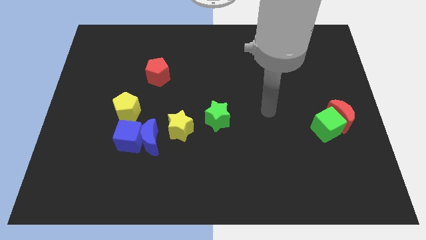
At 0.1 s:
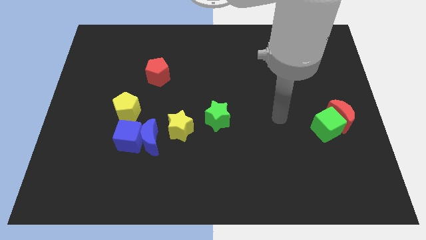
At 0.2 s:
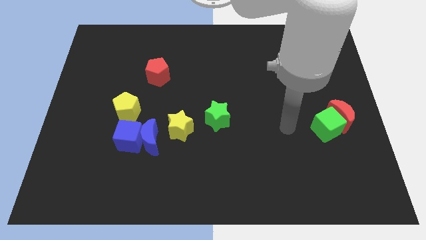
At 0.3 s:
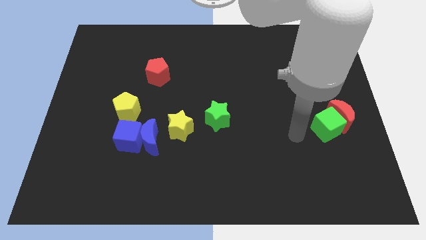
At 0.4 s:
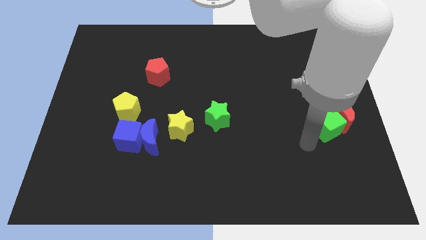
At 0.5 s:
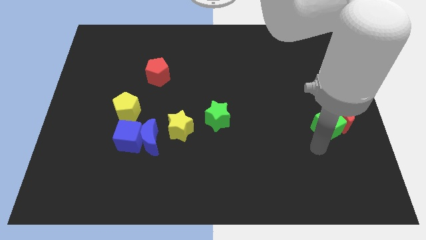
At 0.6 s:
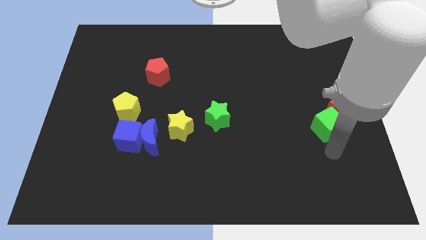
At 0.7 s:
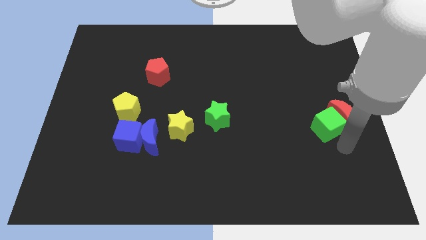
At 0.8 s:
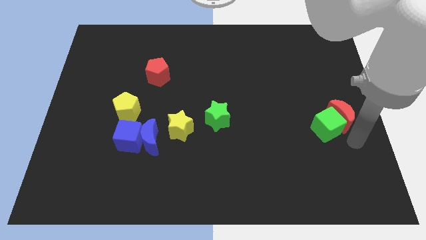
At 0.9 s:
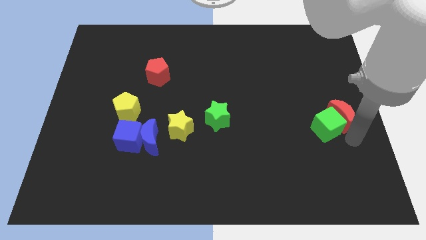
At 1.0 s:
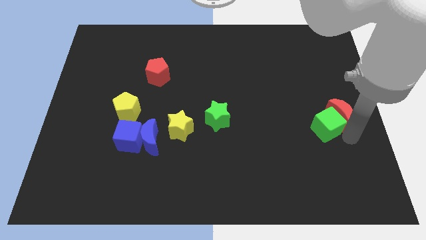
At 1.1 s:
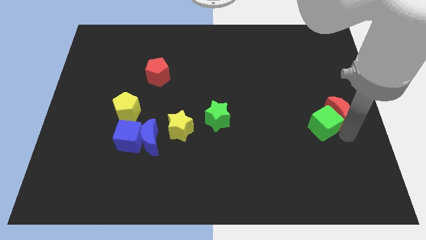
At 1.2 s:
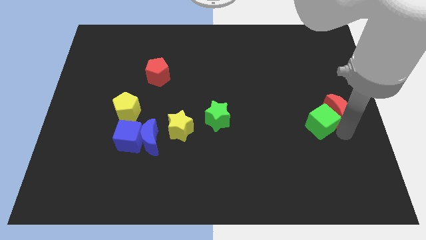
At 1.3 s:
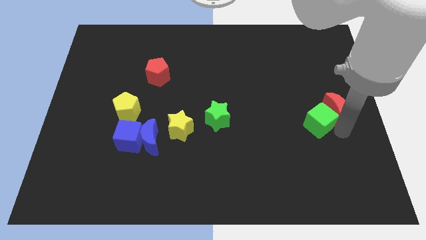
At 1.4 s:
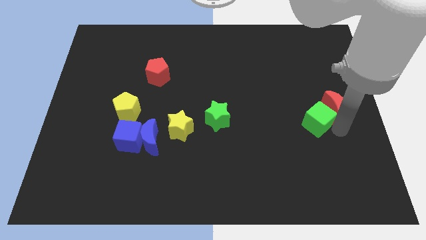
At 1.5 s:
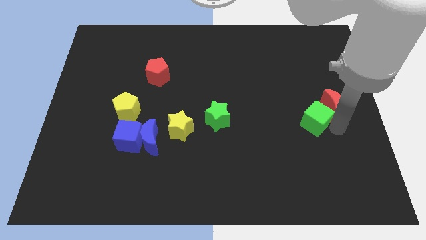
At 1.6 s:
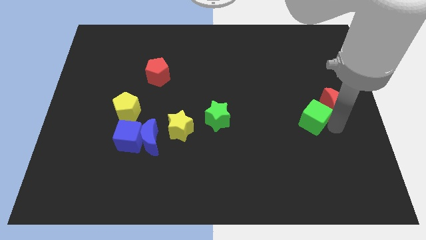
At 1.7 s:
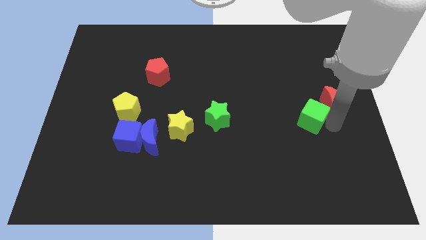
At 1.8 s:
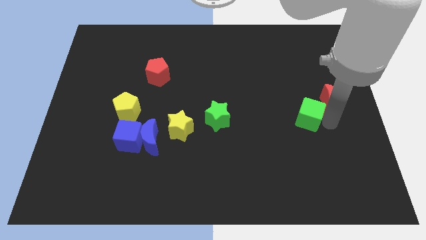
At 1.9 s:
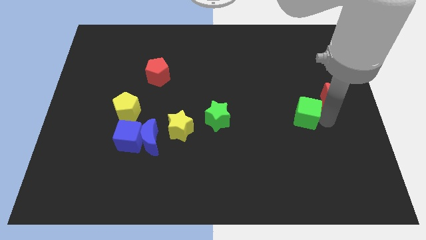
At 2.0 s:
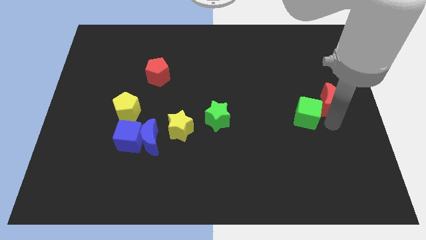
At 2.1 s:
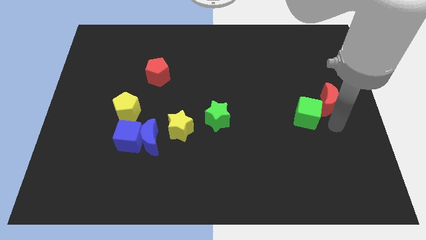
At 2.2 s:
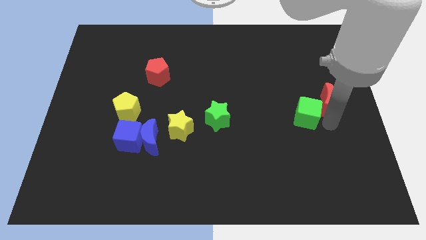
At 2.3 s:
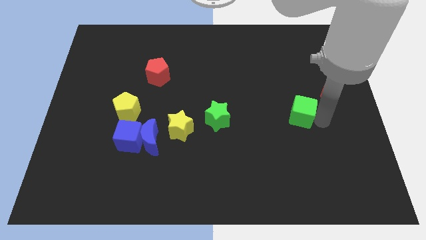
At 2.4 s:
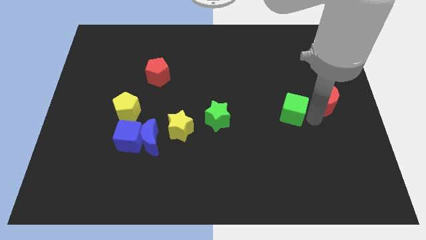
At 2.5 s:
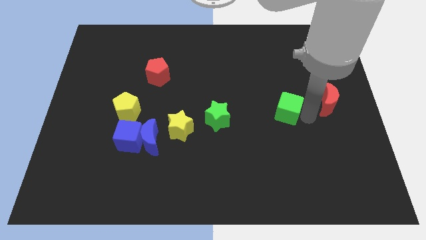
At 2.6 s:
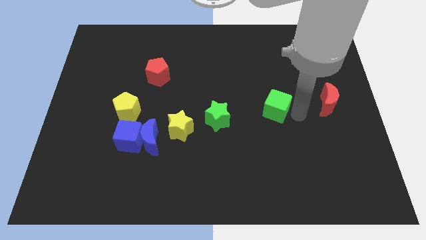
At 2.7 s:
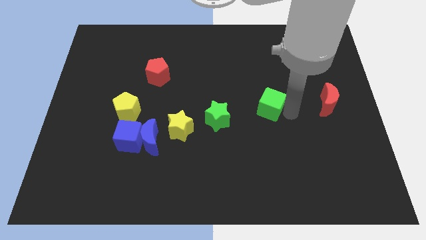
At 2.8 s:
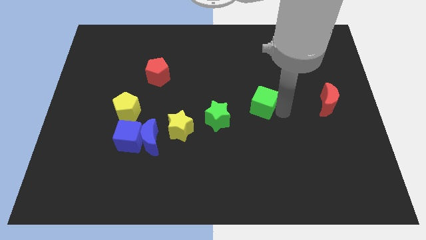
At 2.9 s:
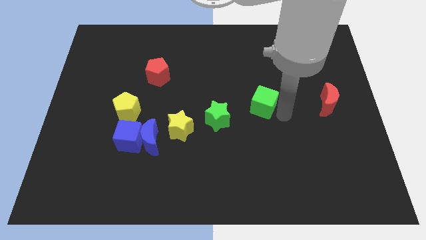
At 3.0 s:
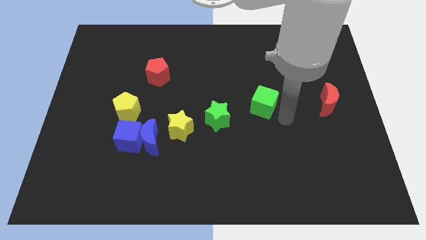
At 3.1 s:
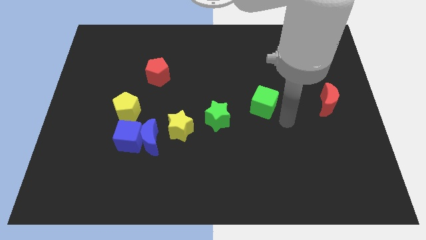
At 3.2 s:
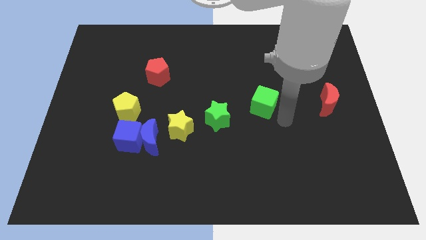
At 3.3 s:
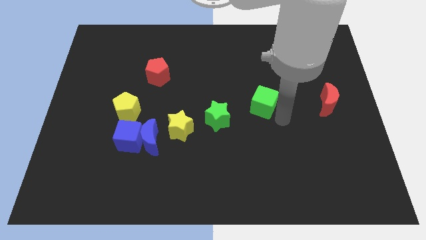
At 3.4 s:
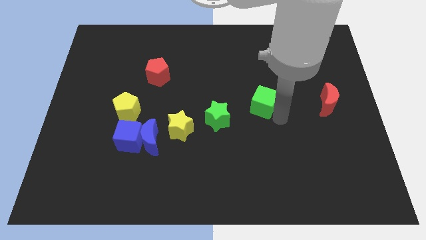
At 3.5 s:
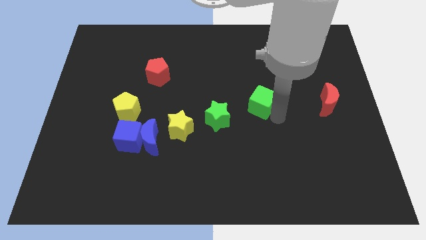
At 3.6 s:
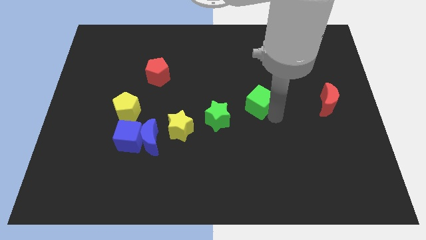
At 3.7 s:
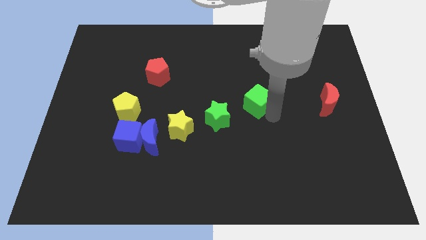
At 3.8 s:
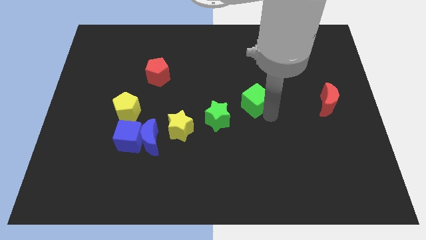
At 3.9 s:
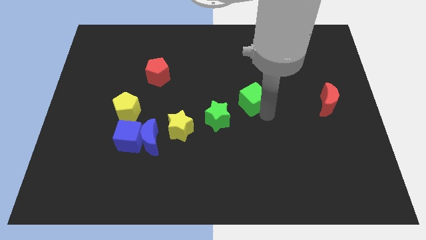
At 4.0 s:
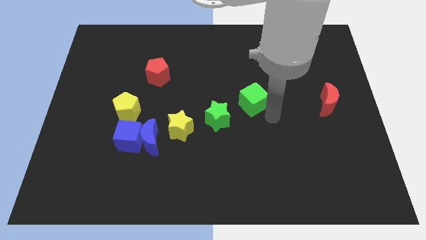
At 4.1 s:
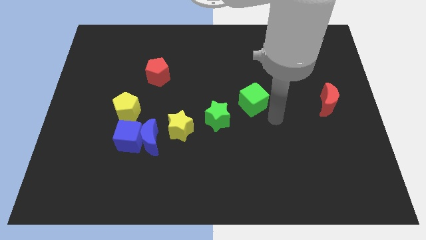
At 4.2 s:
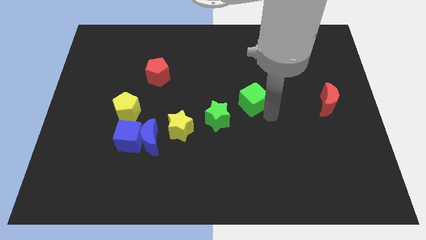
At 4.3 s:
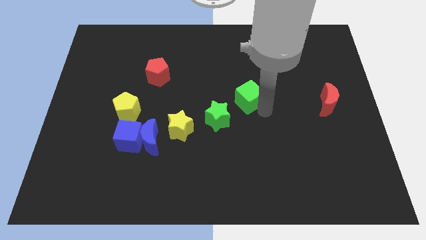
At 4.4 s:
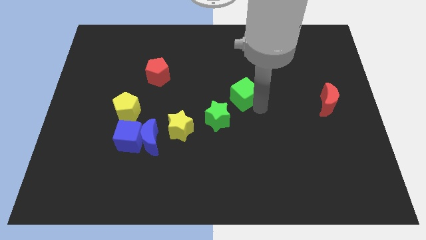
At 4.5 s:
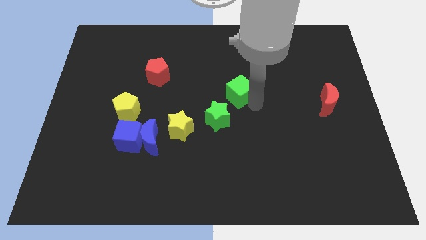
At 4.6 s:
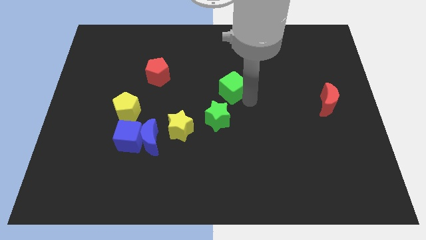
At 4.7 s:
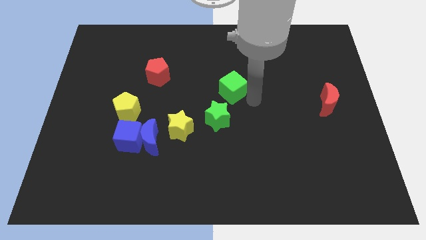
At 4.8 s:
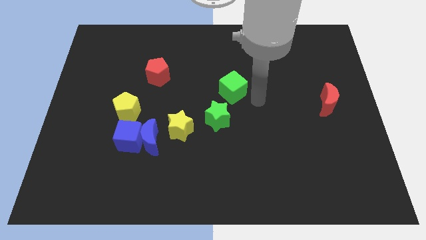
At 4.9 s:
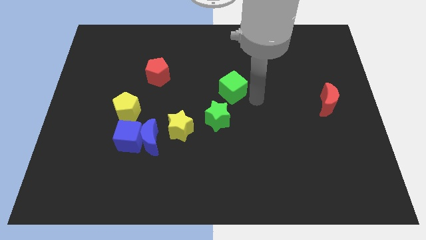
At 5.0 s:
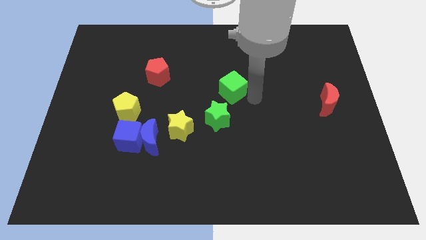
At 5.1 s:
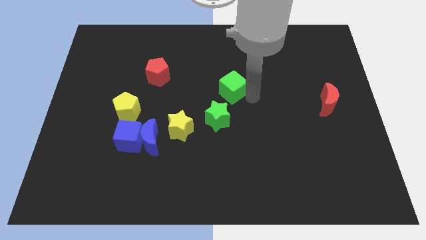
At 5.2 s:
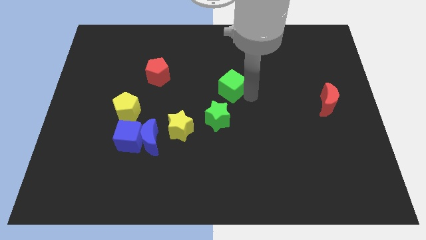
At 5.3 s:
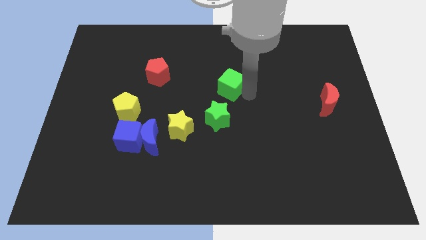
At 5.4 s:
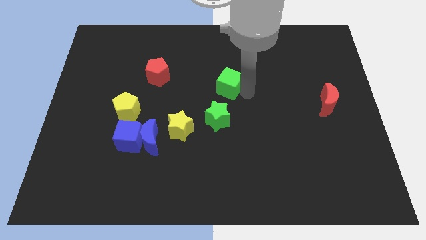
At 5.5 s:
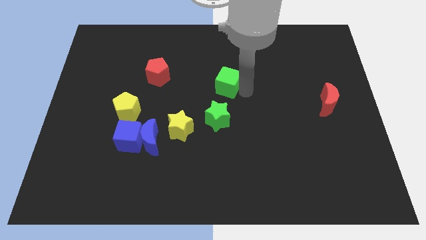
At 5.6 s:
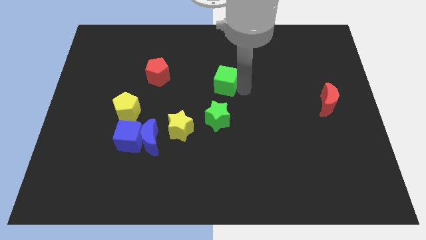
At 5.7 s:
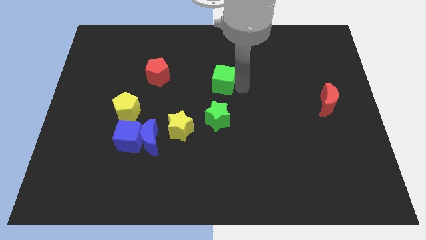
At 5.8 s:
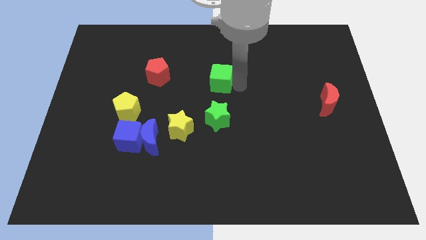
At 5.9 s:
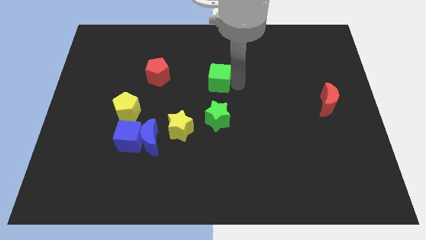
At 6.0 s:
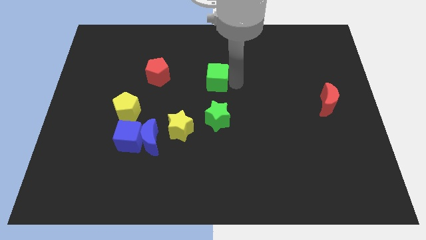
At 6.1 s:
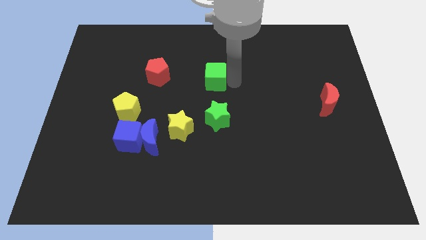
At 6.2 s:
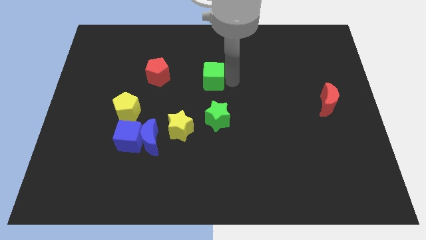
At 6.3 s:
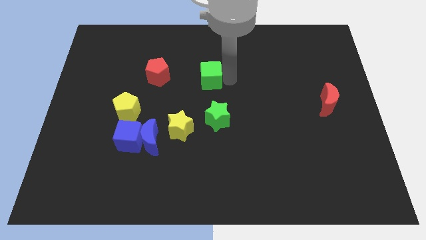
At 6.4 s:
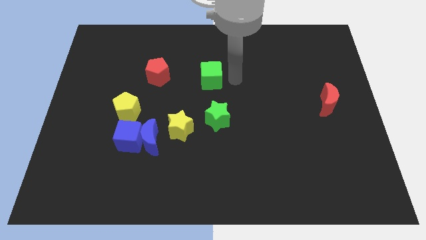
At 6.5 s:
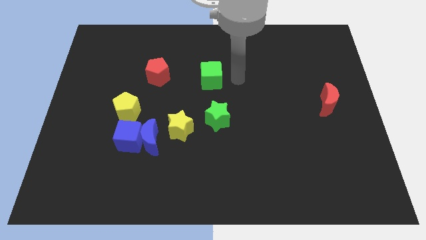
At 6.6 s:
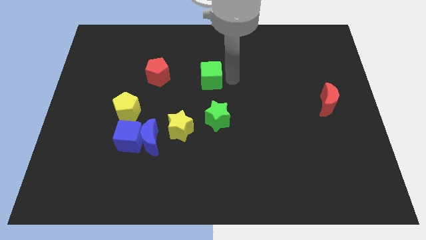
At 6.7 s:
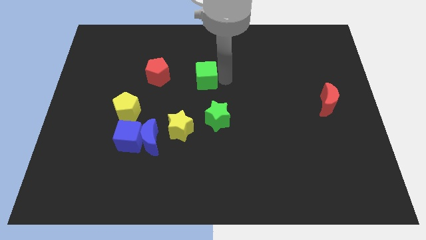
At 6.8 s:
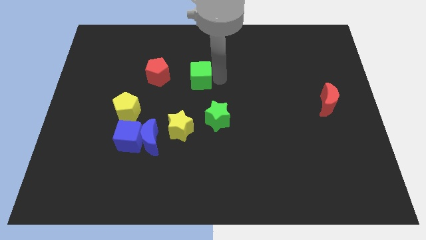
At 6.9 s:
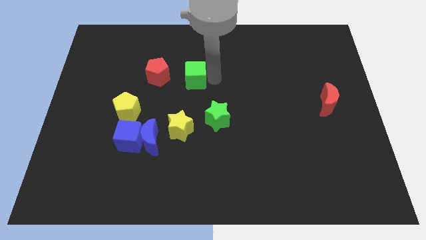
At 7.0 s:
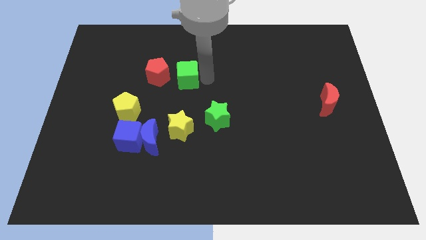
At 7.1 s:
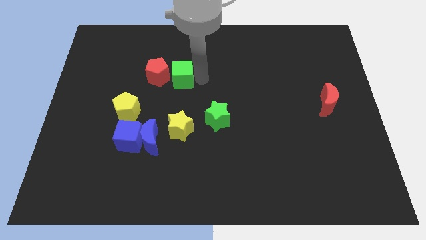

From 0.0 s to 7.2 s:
push the green cube towards the red pentagon
